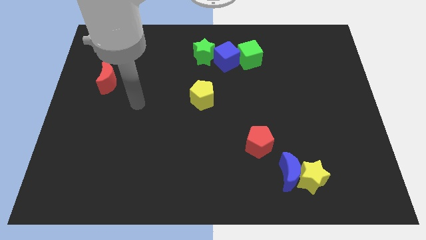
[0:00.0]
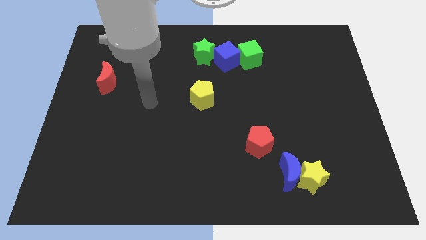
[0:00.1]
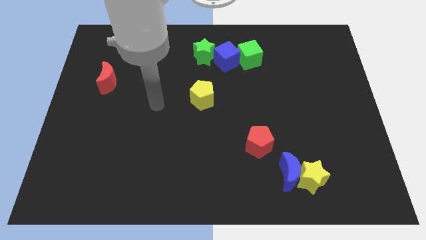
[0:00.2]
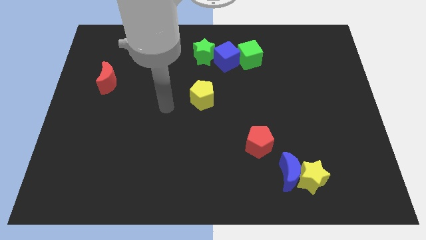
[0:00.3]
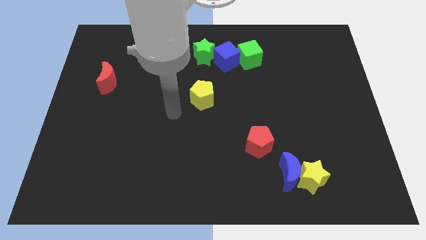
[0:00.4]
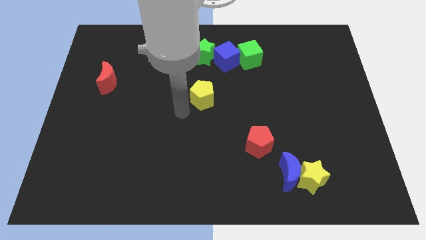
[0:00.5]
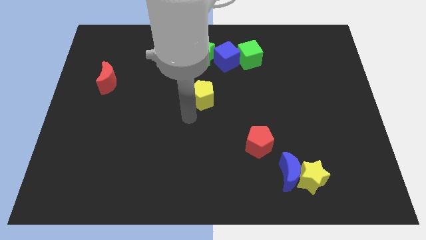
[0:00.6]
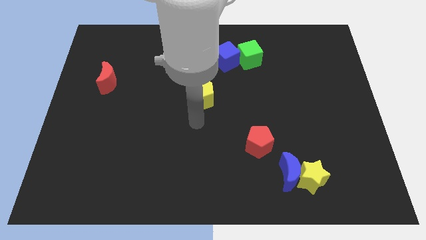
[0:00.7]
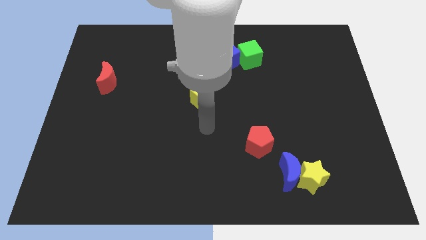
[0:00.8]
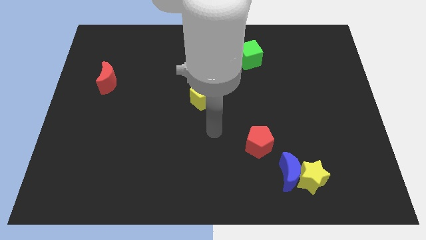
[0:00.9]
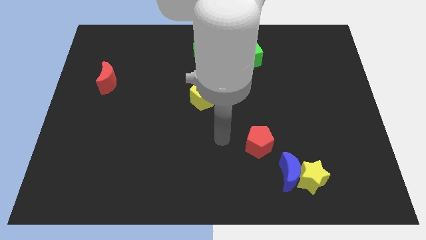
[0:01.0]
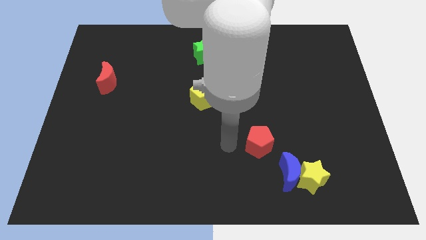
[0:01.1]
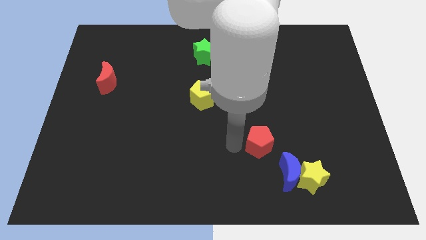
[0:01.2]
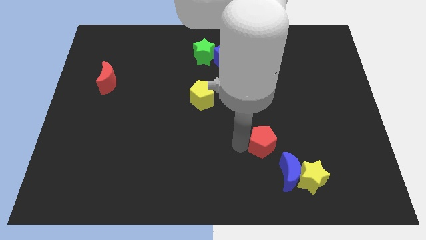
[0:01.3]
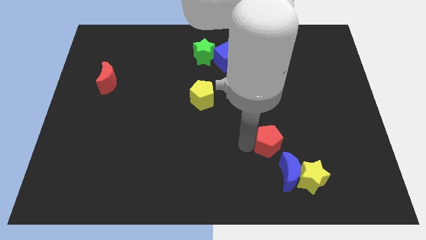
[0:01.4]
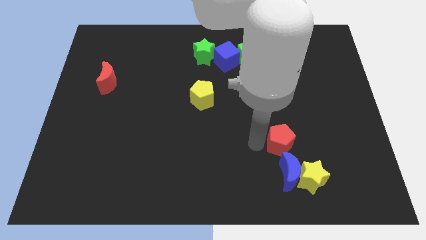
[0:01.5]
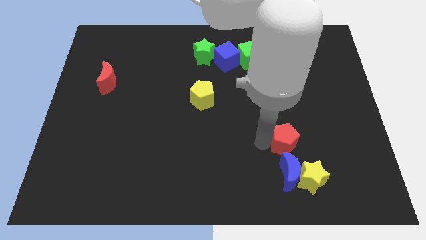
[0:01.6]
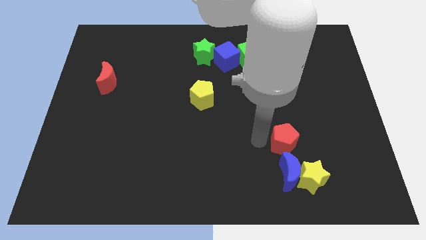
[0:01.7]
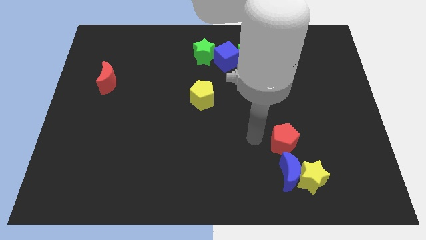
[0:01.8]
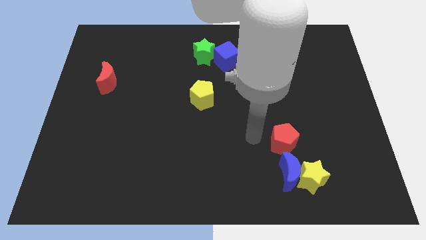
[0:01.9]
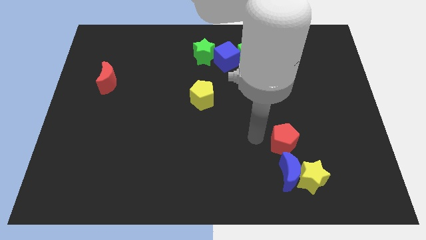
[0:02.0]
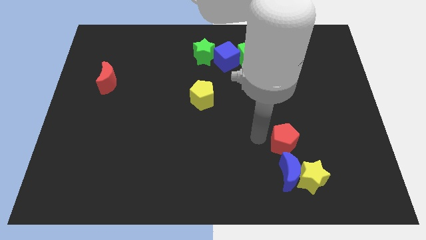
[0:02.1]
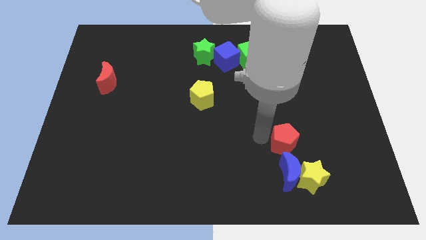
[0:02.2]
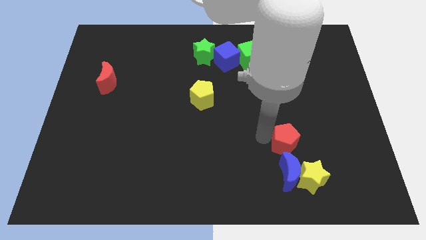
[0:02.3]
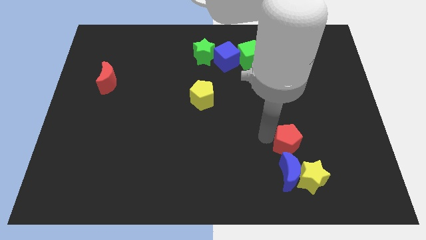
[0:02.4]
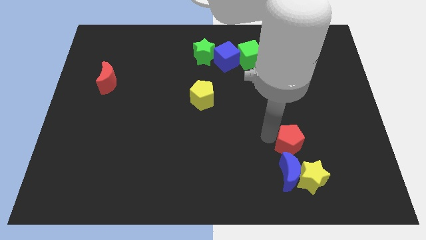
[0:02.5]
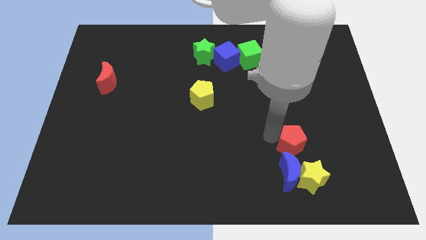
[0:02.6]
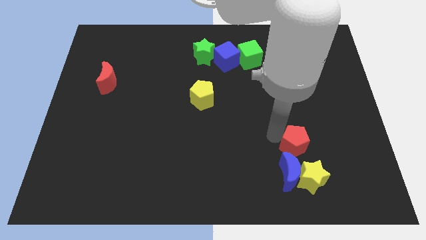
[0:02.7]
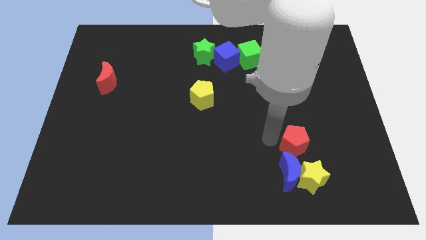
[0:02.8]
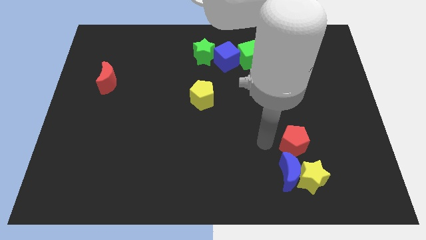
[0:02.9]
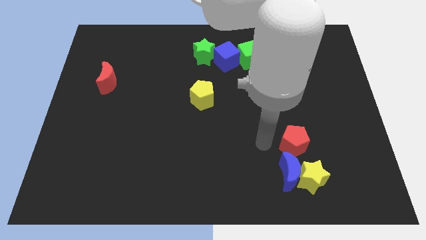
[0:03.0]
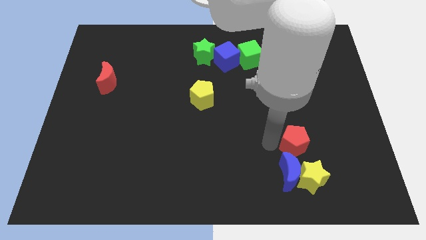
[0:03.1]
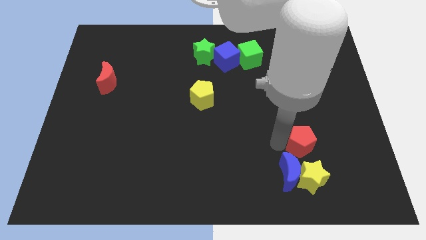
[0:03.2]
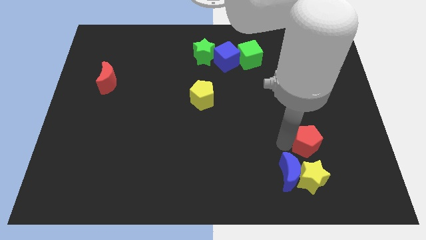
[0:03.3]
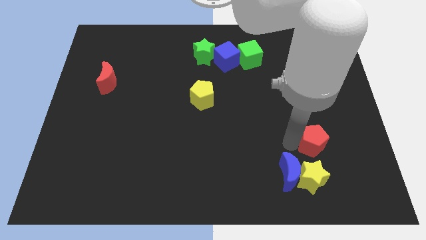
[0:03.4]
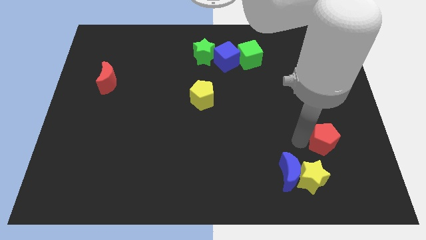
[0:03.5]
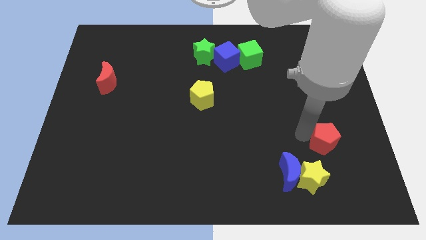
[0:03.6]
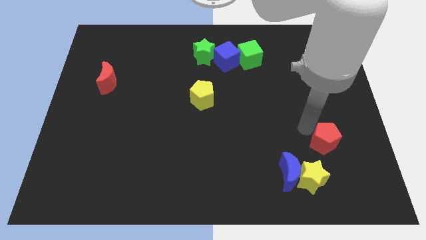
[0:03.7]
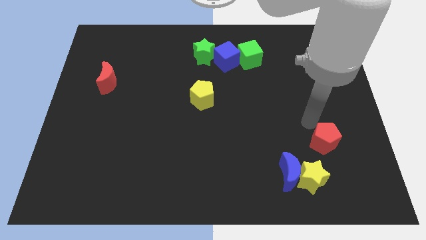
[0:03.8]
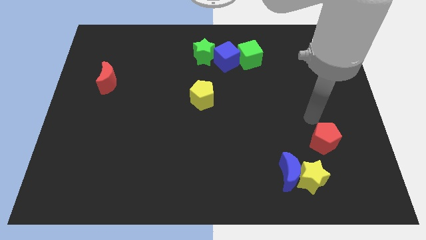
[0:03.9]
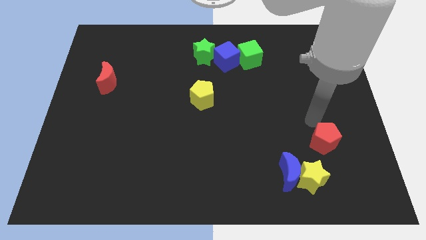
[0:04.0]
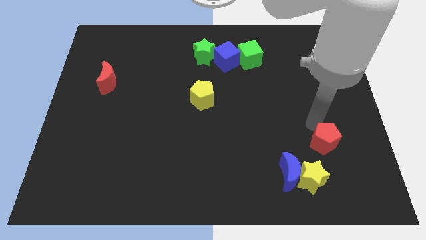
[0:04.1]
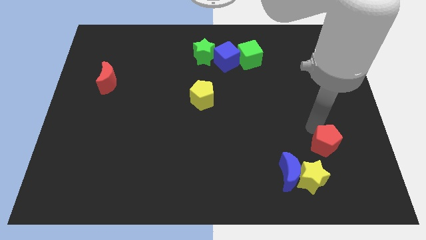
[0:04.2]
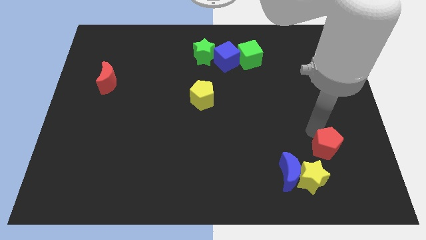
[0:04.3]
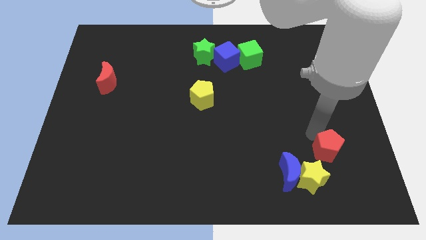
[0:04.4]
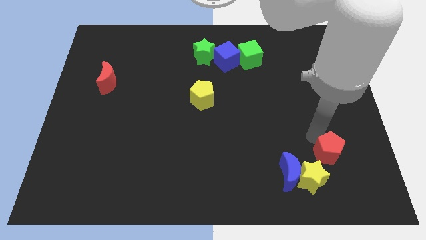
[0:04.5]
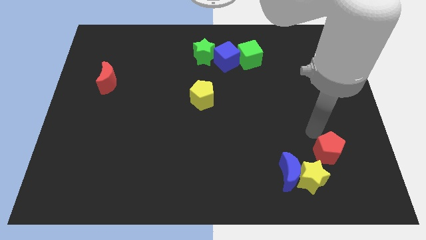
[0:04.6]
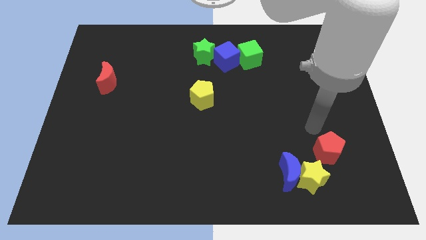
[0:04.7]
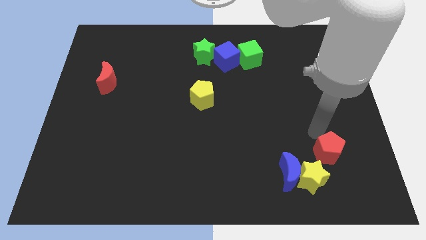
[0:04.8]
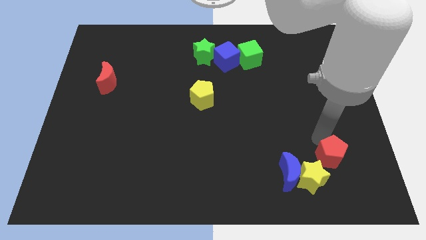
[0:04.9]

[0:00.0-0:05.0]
slide the red pentagon right of the blue moon
